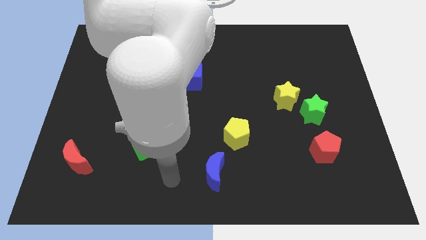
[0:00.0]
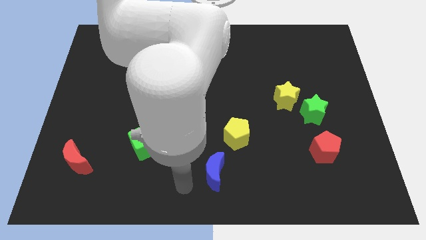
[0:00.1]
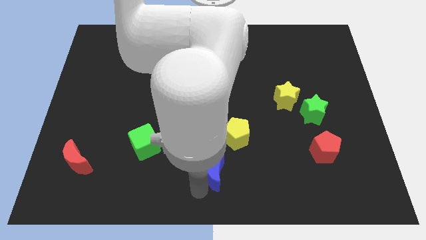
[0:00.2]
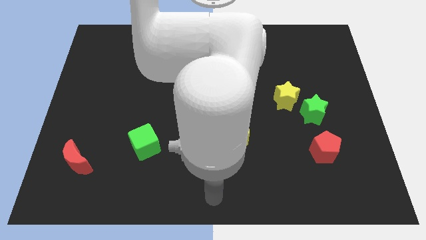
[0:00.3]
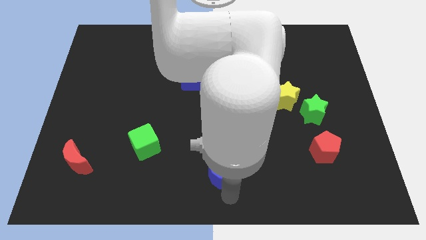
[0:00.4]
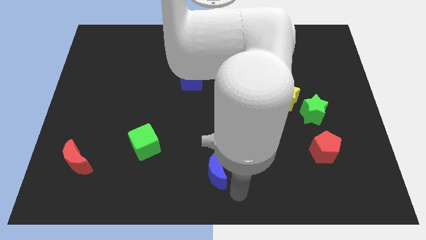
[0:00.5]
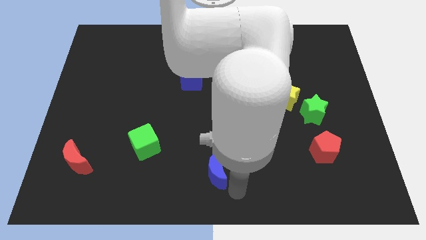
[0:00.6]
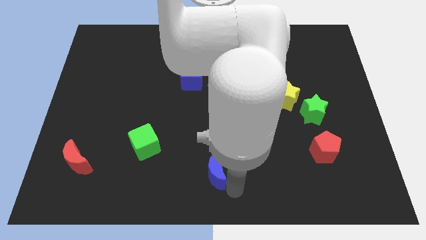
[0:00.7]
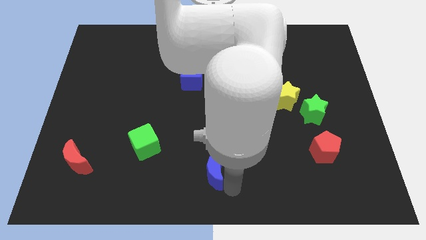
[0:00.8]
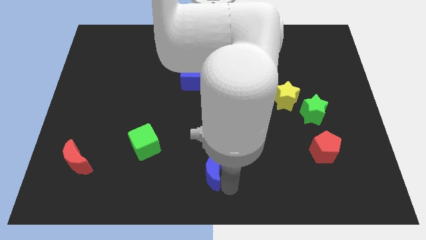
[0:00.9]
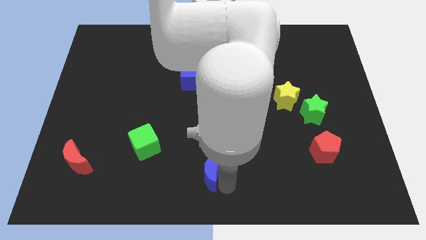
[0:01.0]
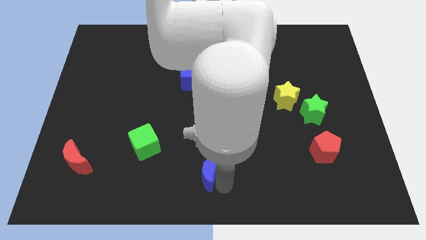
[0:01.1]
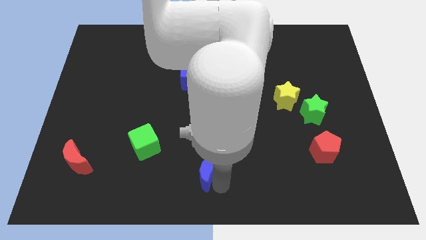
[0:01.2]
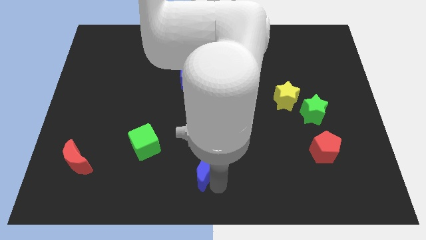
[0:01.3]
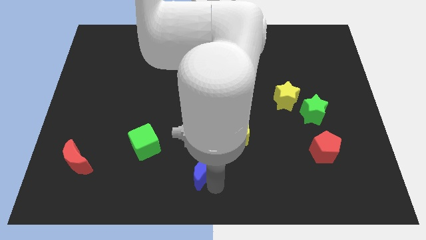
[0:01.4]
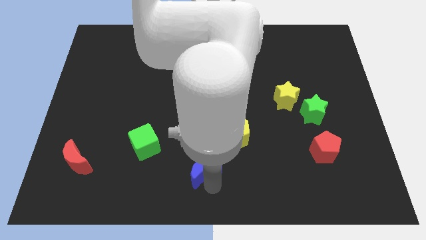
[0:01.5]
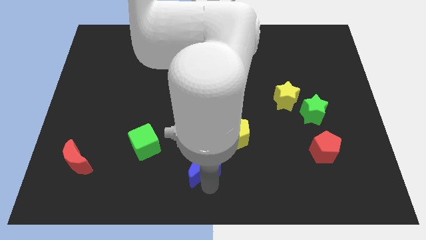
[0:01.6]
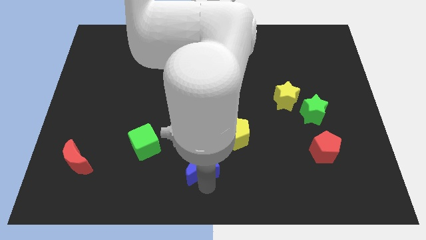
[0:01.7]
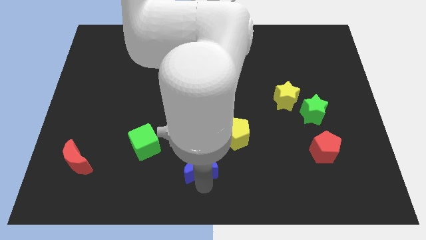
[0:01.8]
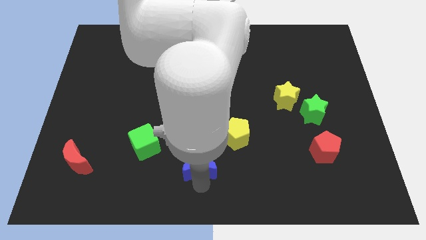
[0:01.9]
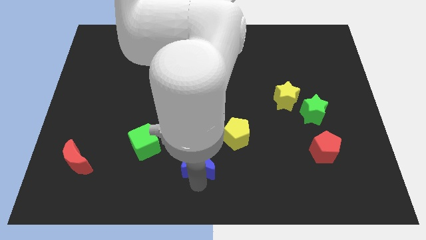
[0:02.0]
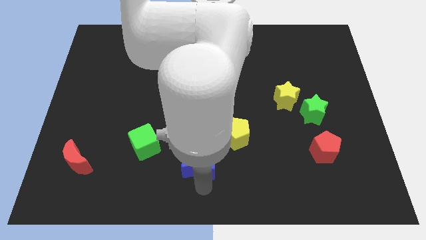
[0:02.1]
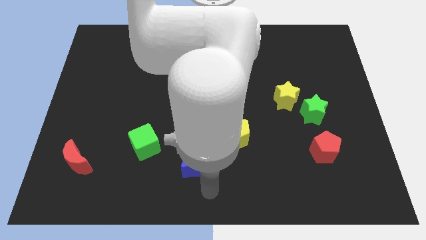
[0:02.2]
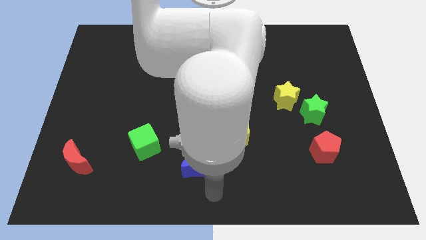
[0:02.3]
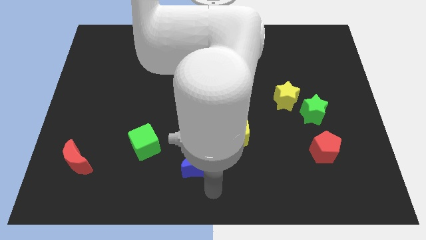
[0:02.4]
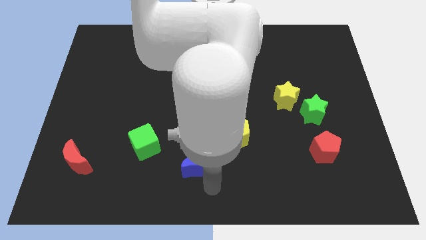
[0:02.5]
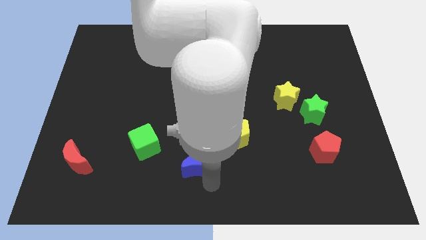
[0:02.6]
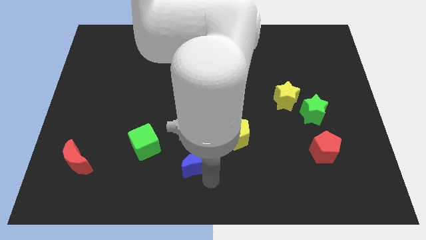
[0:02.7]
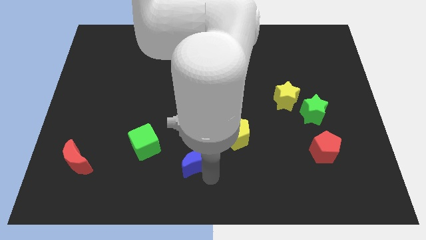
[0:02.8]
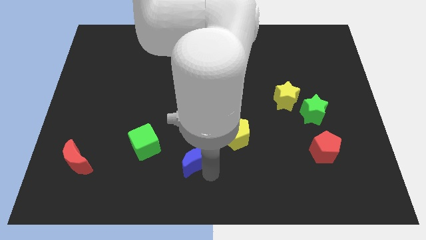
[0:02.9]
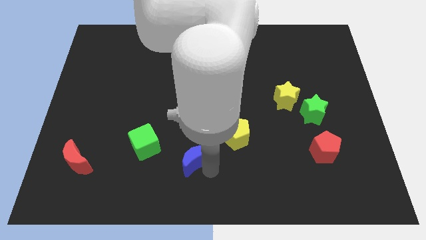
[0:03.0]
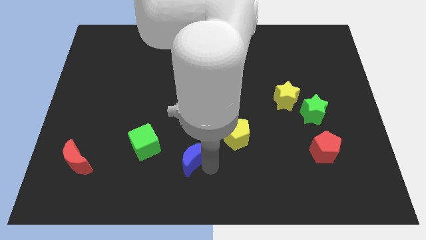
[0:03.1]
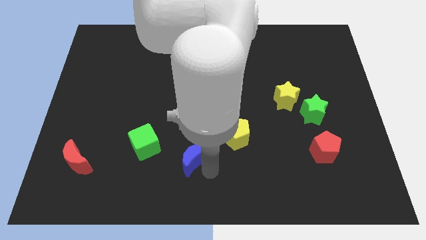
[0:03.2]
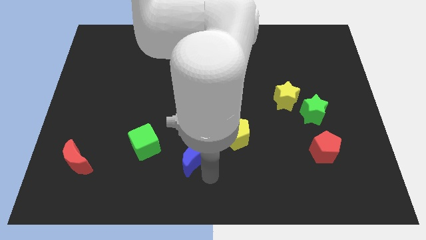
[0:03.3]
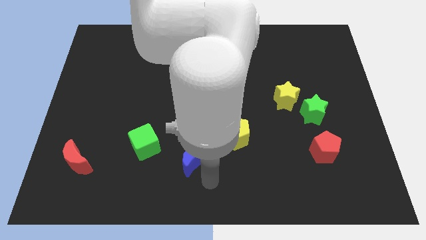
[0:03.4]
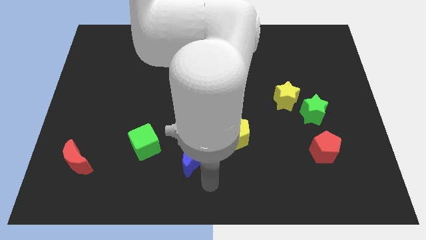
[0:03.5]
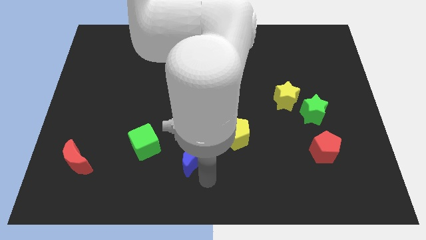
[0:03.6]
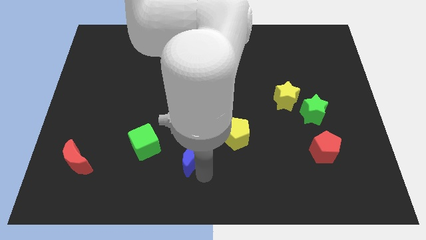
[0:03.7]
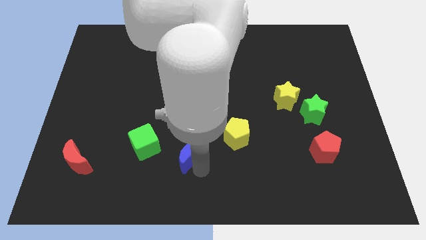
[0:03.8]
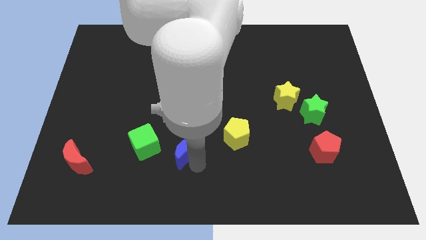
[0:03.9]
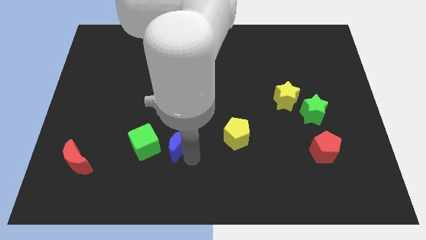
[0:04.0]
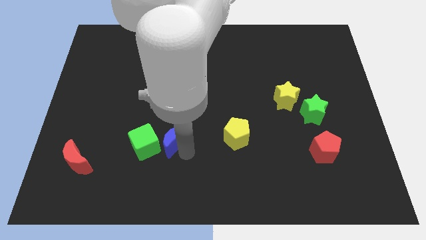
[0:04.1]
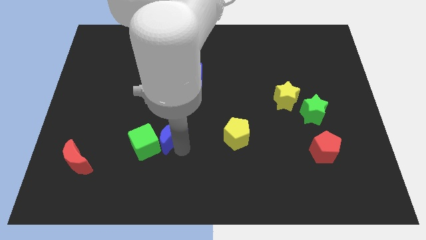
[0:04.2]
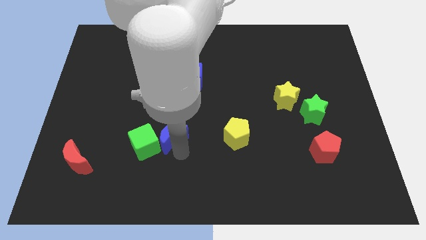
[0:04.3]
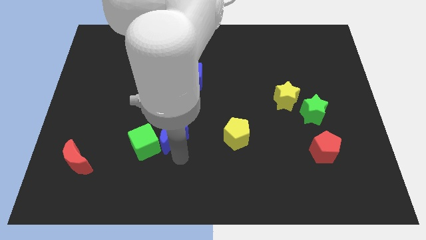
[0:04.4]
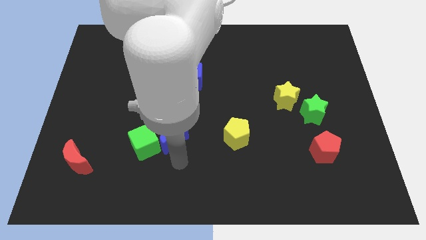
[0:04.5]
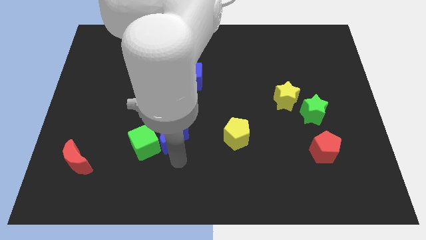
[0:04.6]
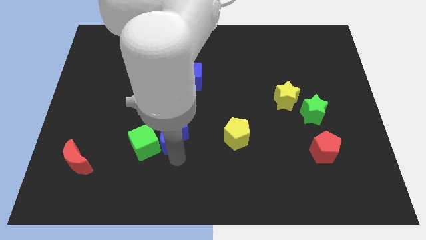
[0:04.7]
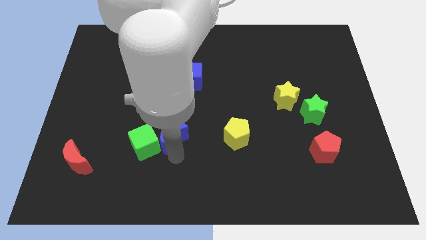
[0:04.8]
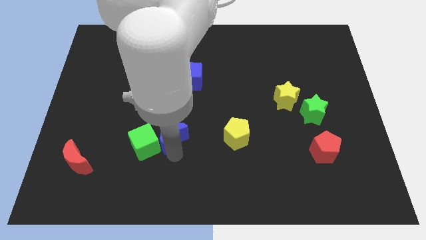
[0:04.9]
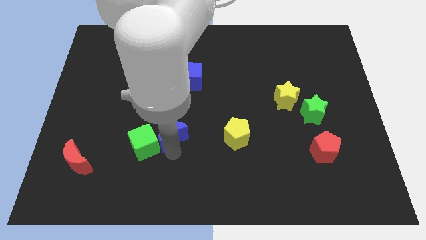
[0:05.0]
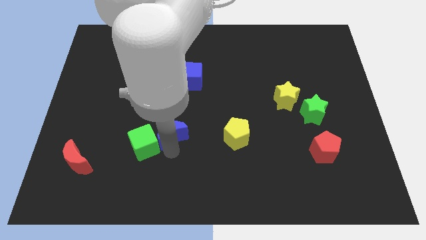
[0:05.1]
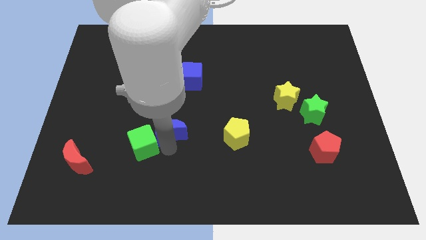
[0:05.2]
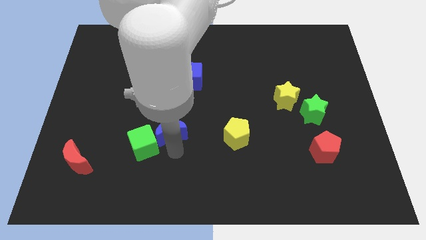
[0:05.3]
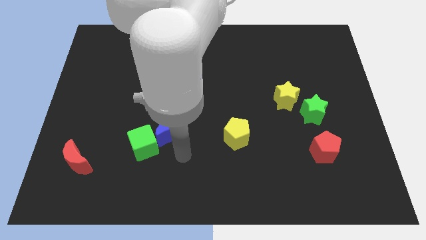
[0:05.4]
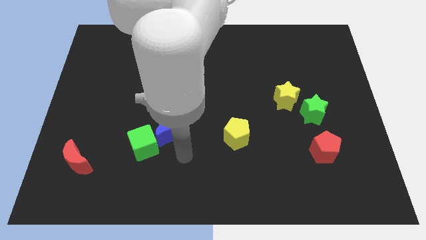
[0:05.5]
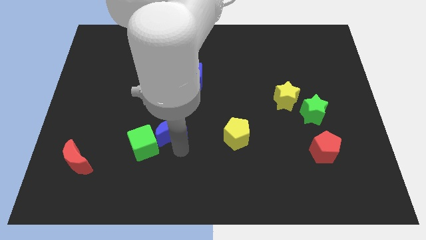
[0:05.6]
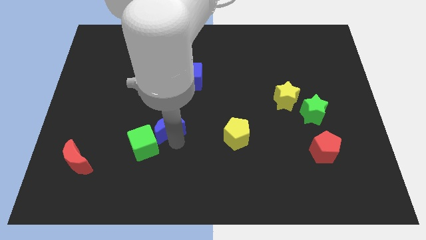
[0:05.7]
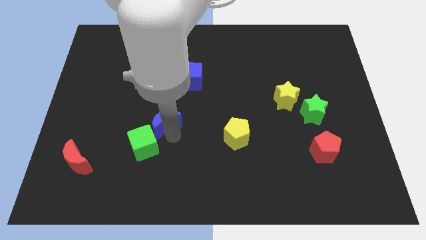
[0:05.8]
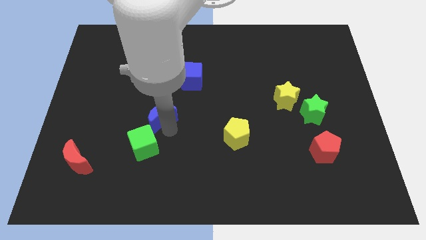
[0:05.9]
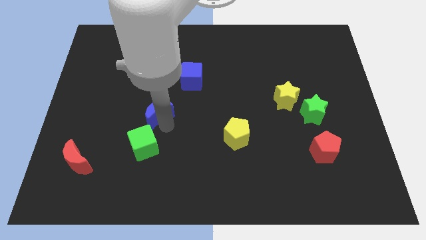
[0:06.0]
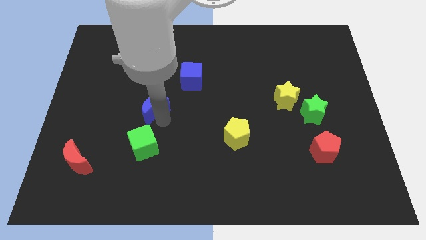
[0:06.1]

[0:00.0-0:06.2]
move the blue moon up and then left

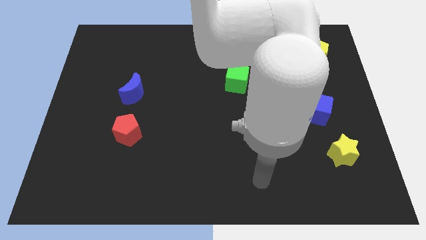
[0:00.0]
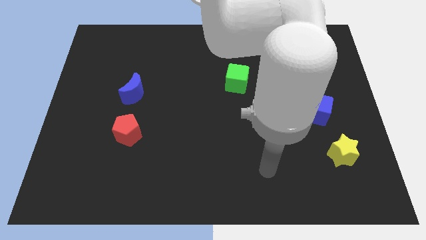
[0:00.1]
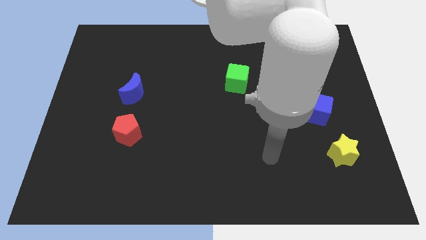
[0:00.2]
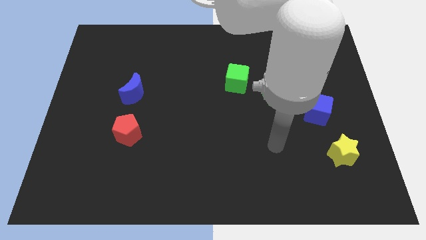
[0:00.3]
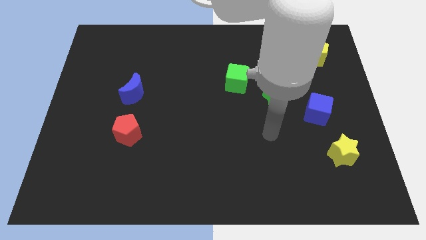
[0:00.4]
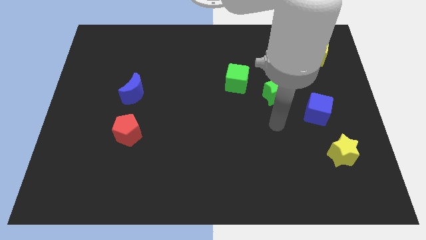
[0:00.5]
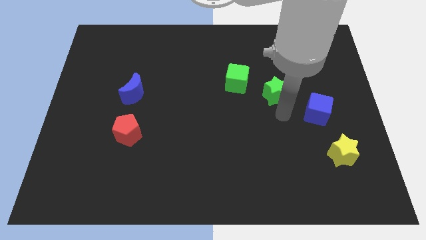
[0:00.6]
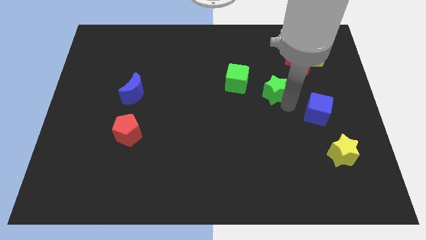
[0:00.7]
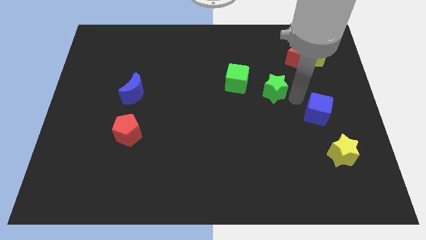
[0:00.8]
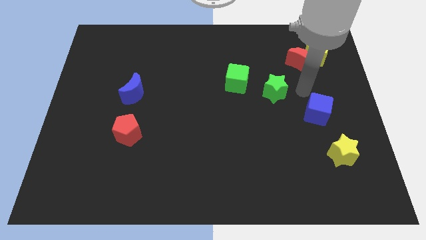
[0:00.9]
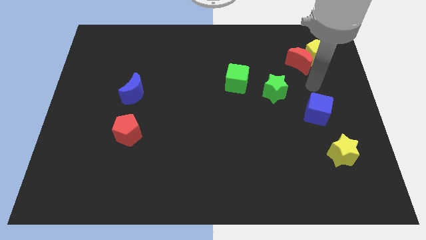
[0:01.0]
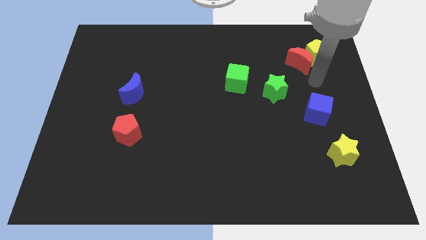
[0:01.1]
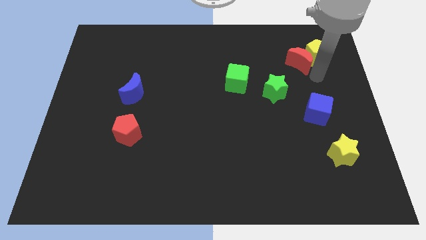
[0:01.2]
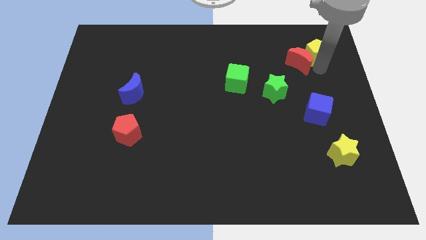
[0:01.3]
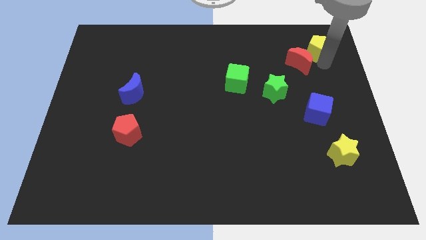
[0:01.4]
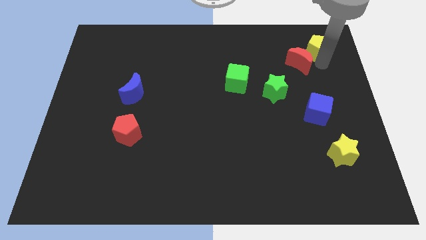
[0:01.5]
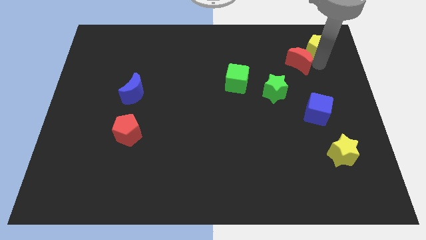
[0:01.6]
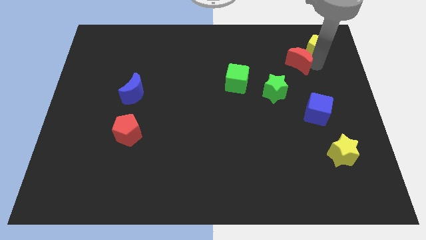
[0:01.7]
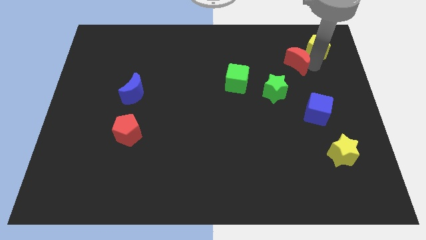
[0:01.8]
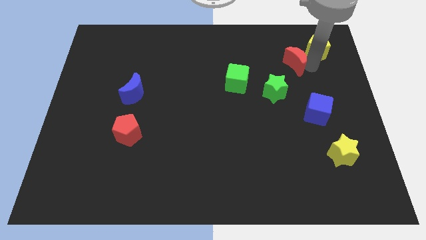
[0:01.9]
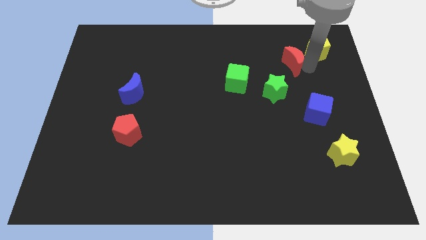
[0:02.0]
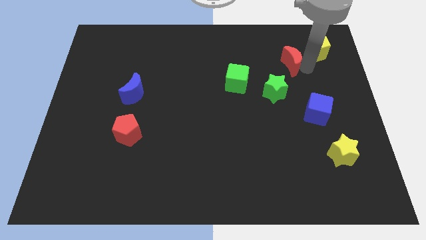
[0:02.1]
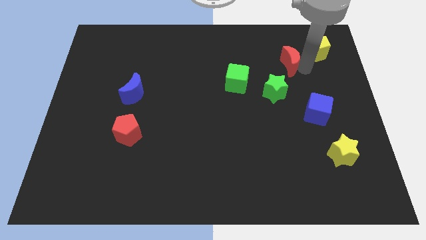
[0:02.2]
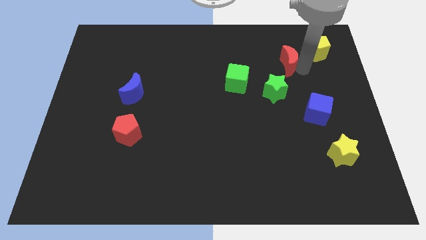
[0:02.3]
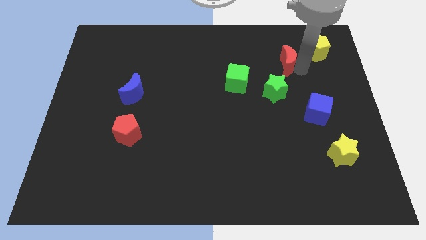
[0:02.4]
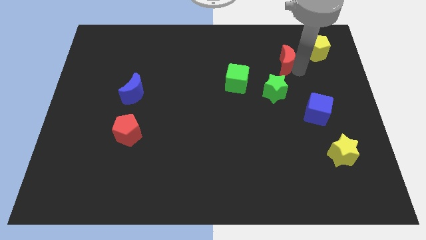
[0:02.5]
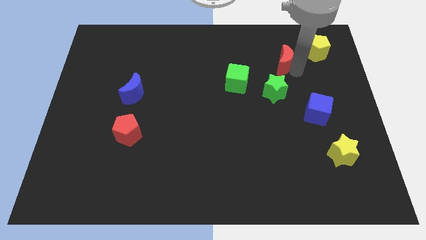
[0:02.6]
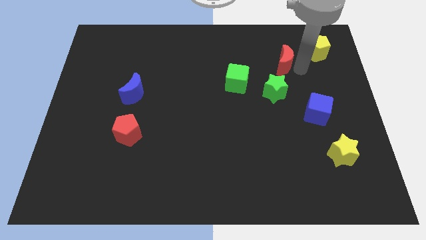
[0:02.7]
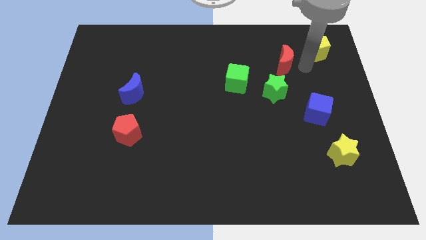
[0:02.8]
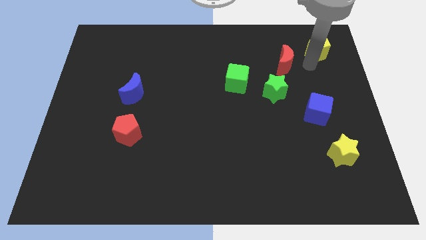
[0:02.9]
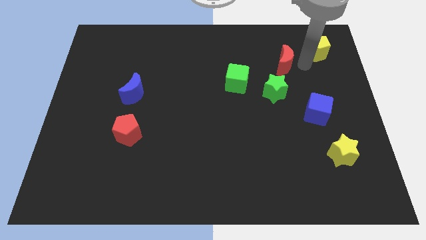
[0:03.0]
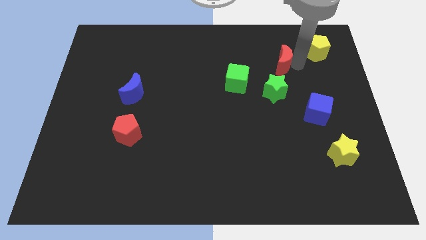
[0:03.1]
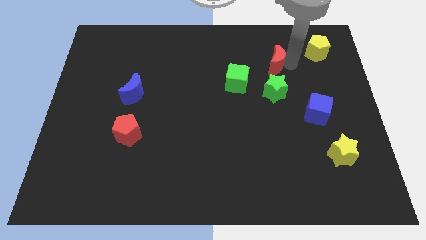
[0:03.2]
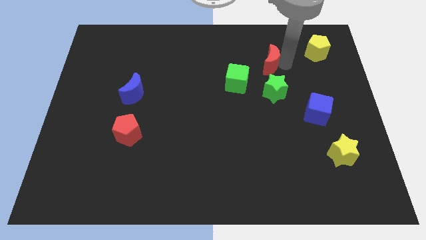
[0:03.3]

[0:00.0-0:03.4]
slide the red moon to the left a little bit
